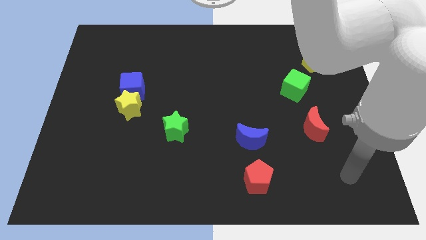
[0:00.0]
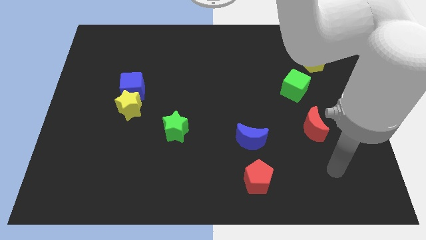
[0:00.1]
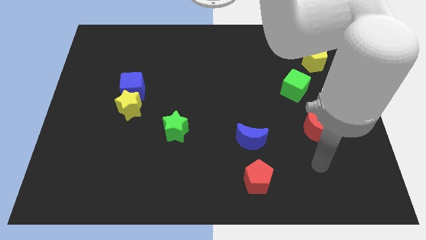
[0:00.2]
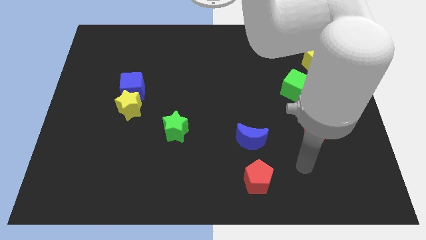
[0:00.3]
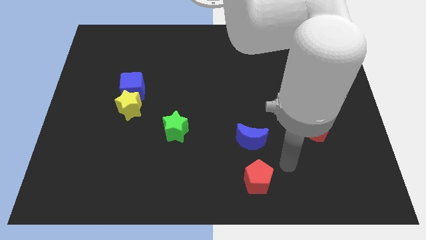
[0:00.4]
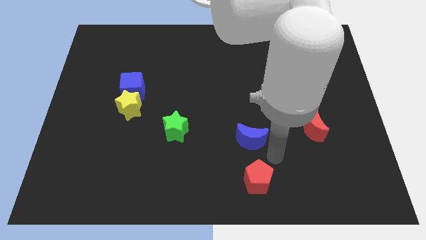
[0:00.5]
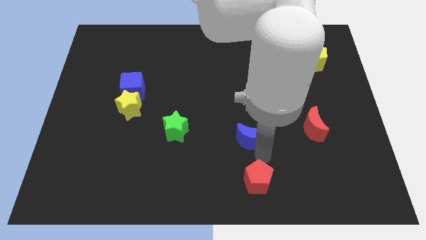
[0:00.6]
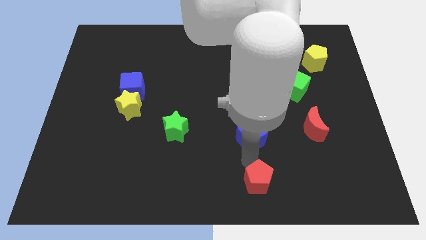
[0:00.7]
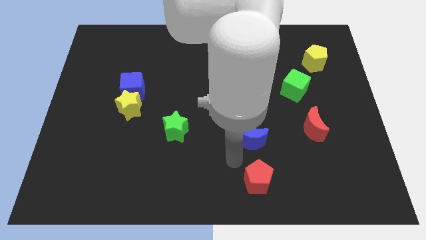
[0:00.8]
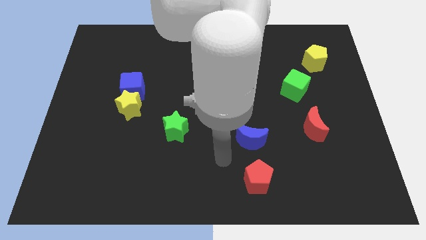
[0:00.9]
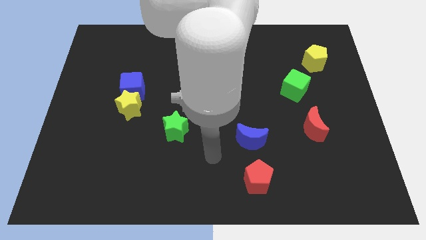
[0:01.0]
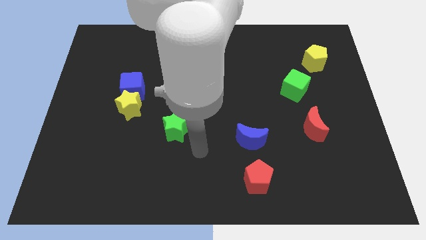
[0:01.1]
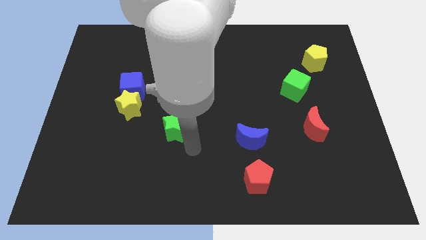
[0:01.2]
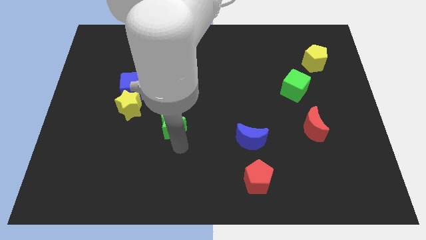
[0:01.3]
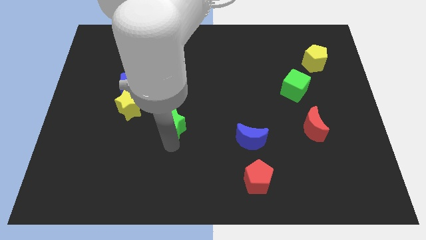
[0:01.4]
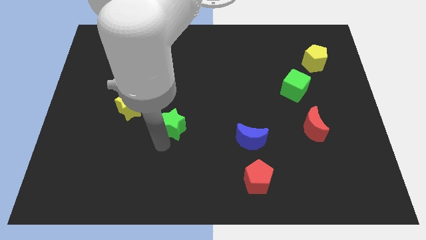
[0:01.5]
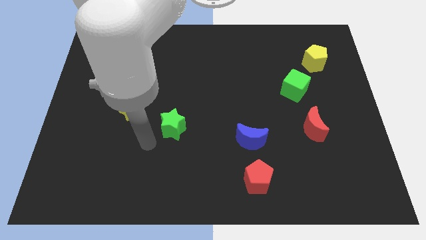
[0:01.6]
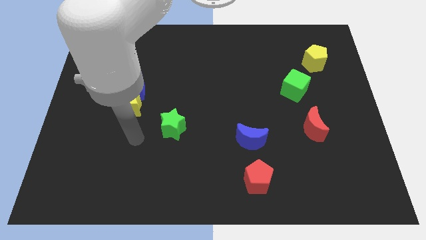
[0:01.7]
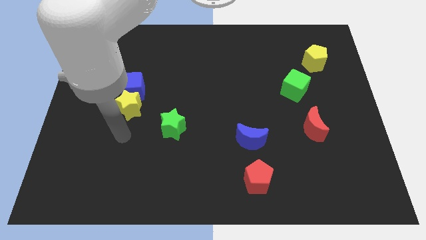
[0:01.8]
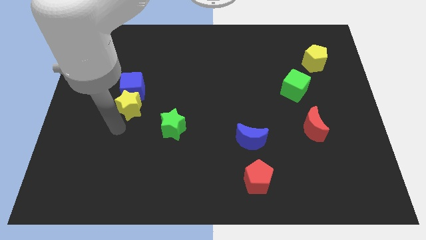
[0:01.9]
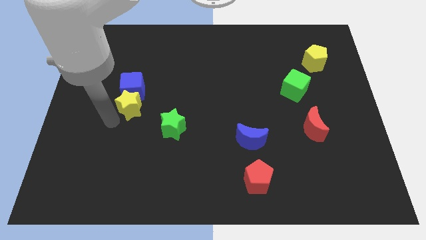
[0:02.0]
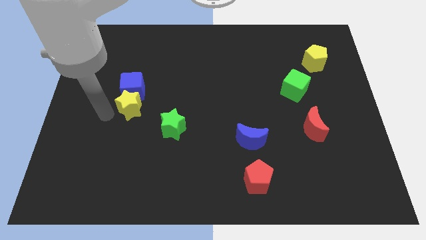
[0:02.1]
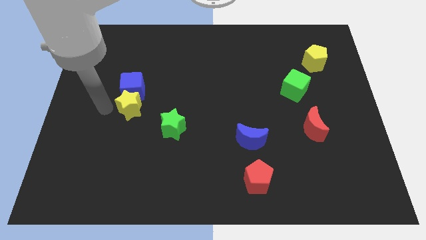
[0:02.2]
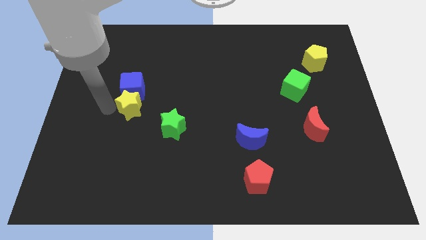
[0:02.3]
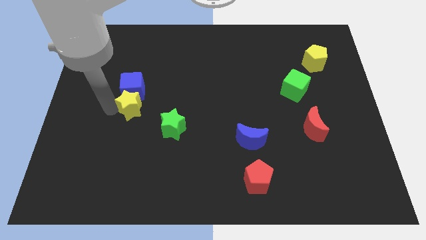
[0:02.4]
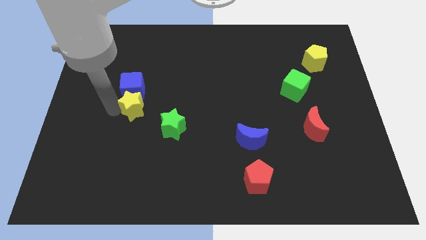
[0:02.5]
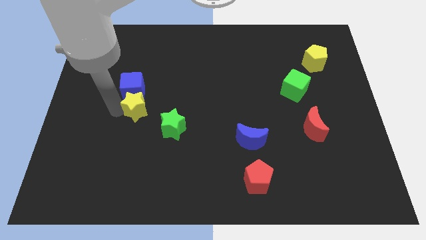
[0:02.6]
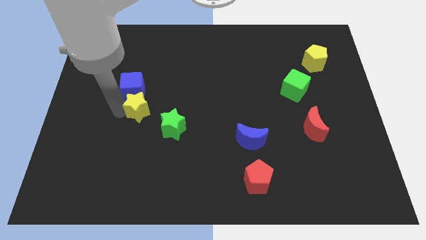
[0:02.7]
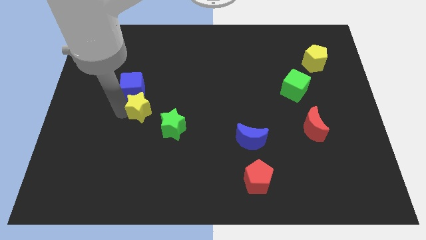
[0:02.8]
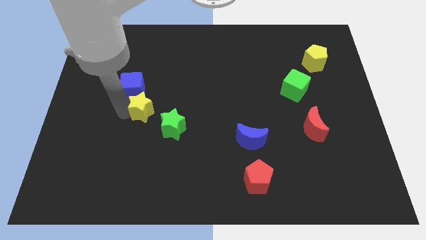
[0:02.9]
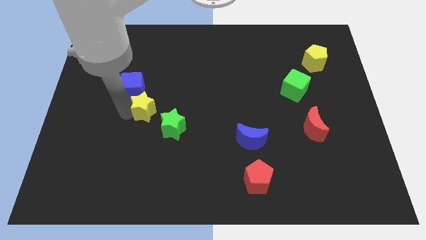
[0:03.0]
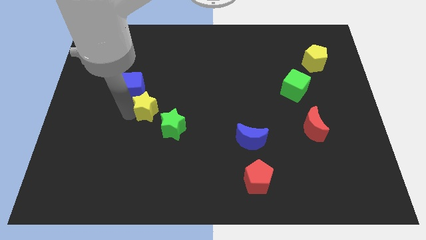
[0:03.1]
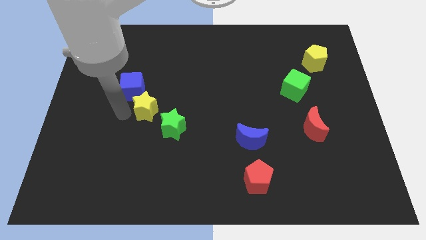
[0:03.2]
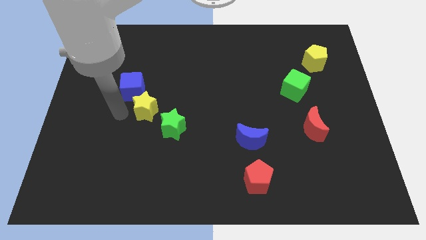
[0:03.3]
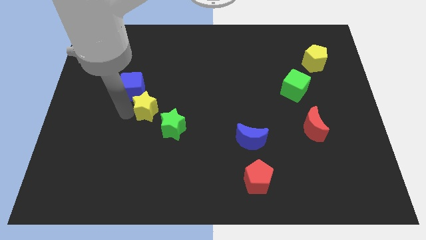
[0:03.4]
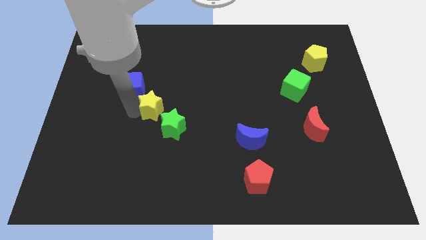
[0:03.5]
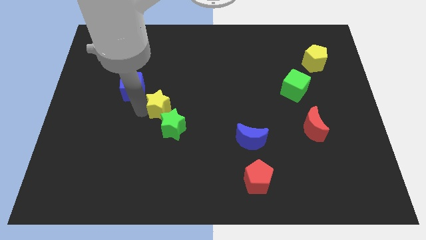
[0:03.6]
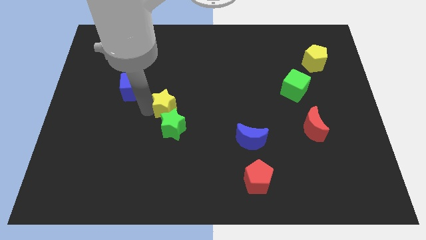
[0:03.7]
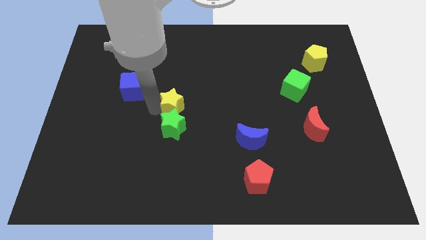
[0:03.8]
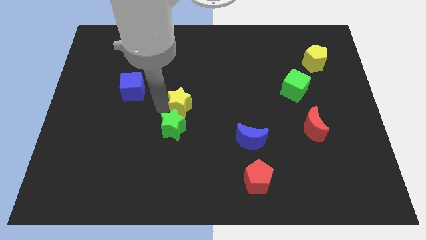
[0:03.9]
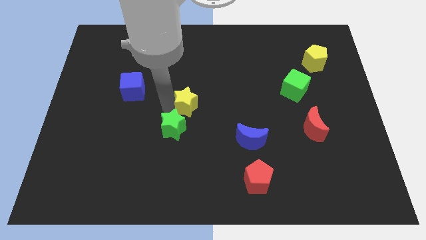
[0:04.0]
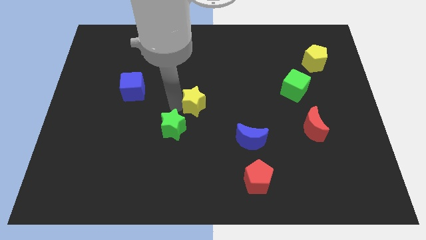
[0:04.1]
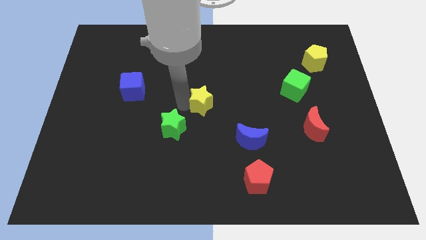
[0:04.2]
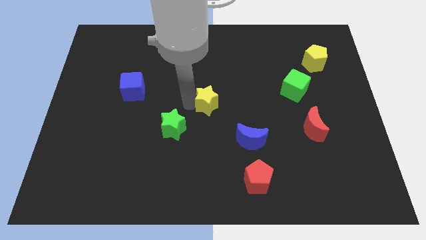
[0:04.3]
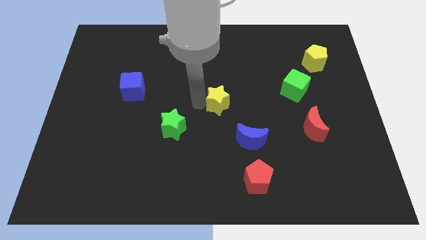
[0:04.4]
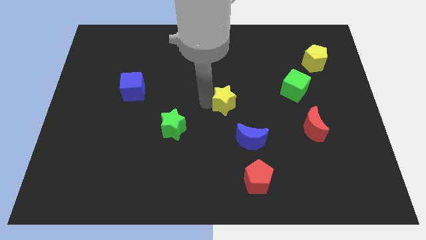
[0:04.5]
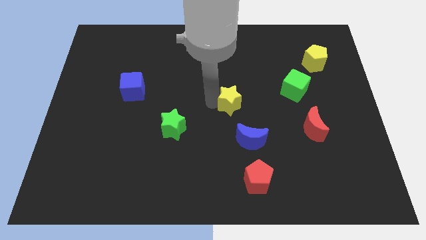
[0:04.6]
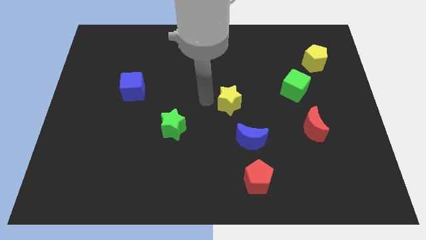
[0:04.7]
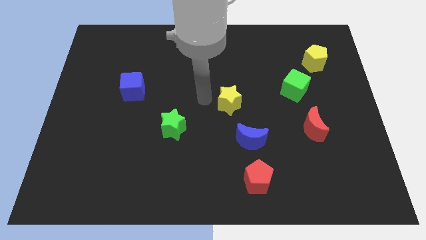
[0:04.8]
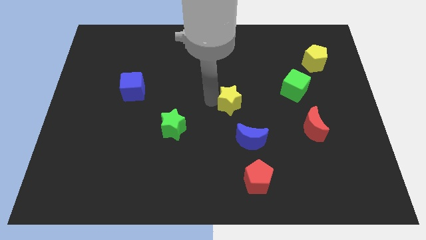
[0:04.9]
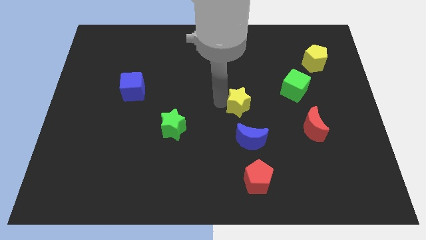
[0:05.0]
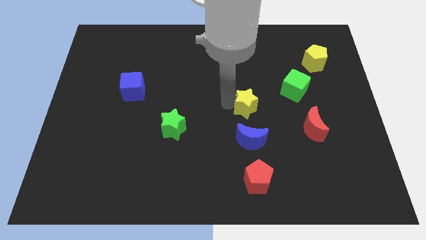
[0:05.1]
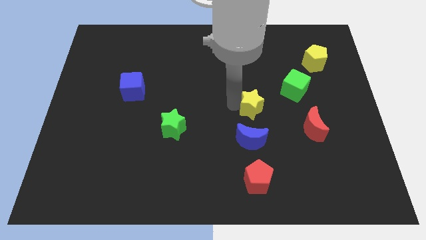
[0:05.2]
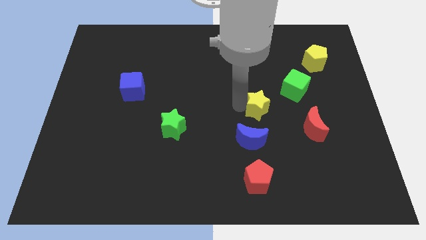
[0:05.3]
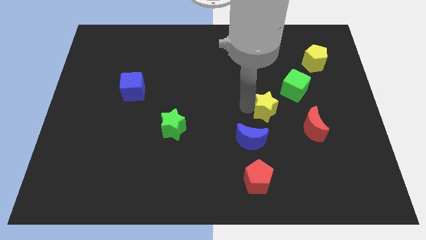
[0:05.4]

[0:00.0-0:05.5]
push the yellow star to the top left of the red moon

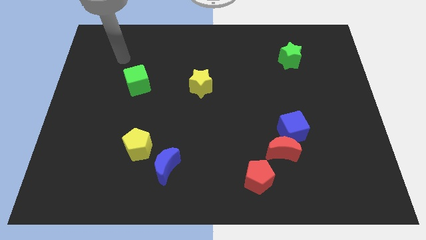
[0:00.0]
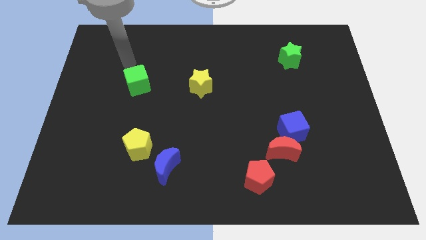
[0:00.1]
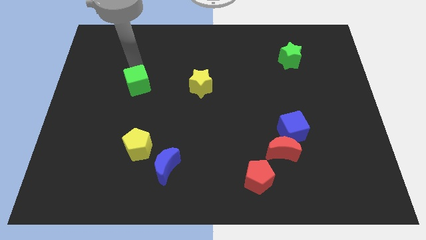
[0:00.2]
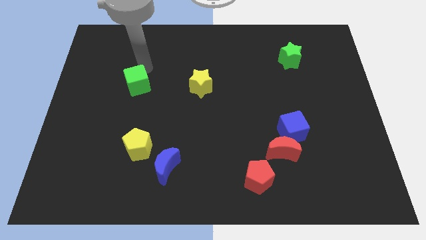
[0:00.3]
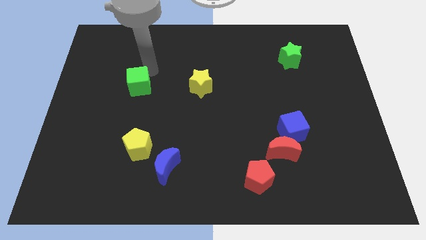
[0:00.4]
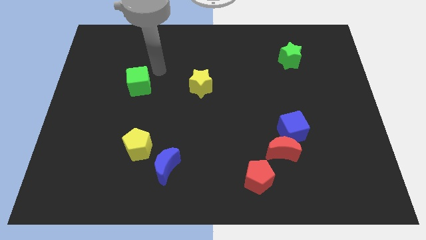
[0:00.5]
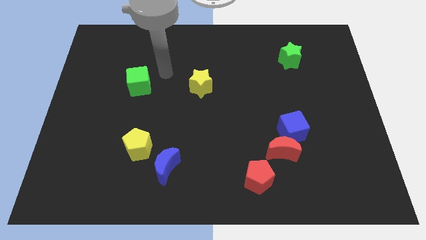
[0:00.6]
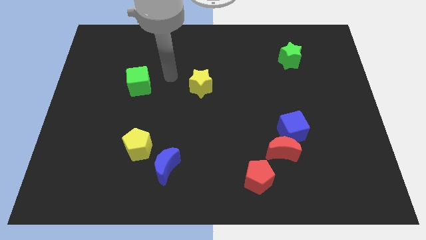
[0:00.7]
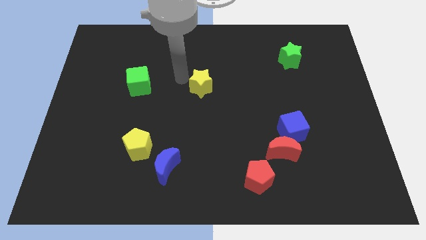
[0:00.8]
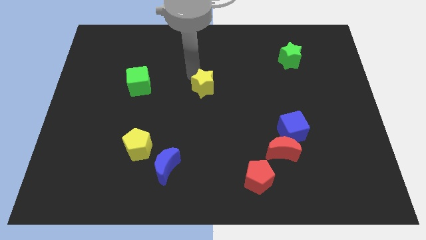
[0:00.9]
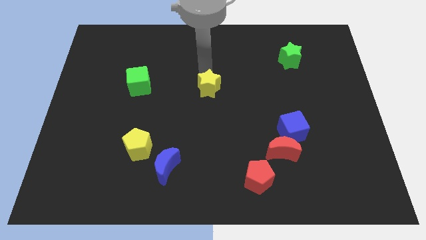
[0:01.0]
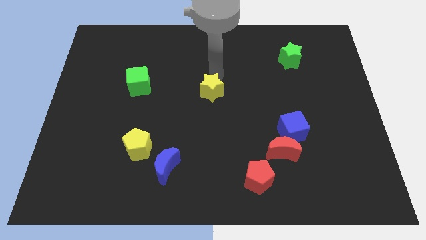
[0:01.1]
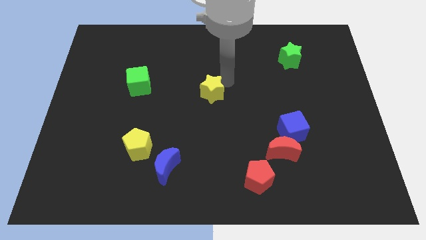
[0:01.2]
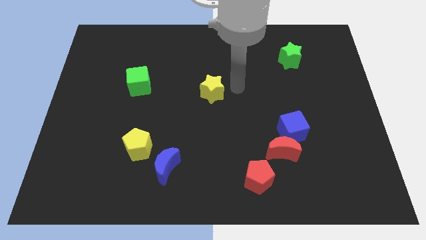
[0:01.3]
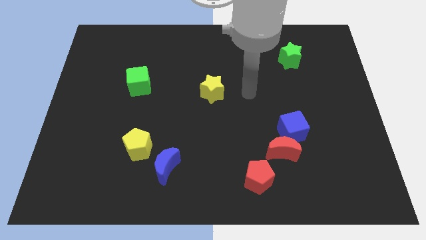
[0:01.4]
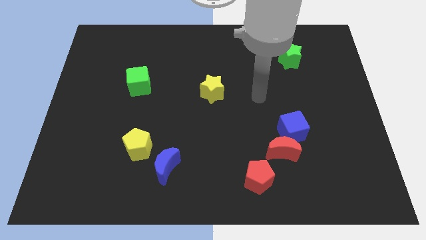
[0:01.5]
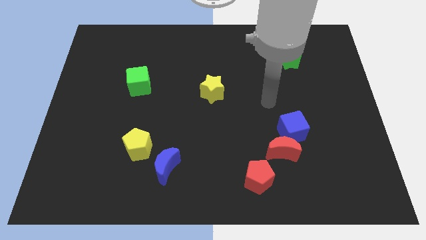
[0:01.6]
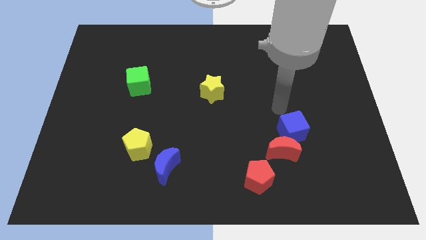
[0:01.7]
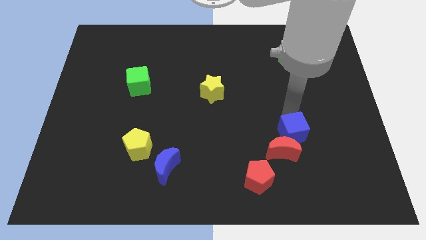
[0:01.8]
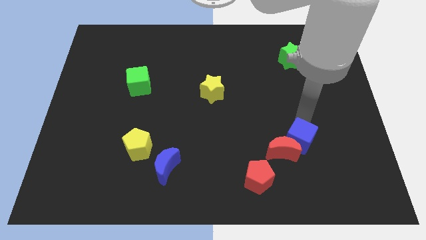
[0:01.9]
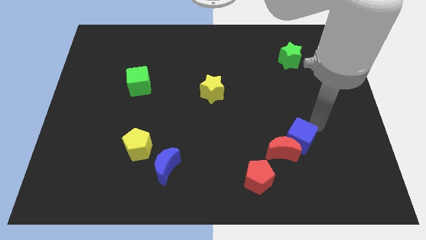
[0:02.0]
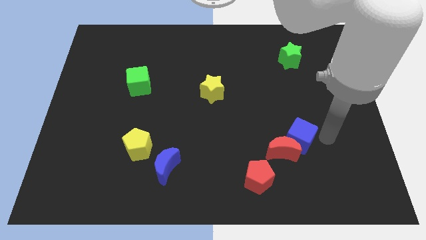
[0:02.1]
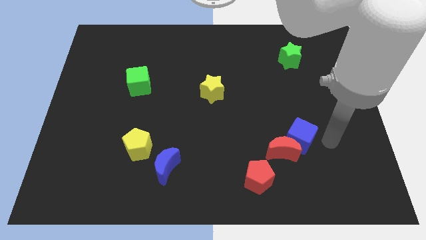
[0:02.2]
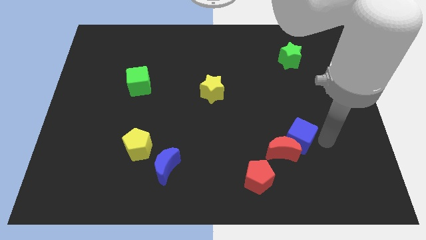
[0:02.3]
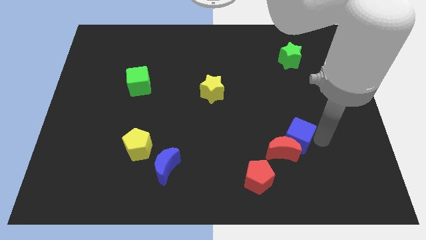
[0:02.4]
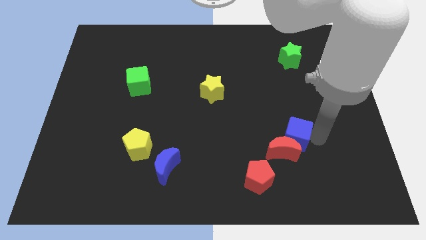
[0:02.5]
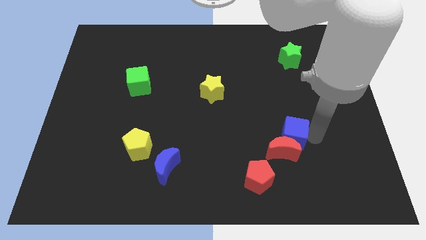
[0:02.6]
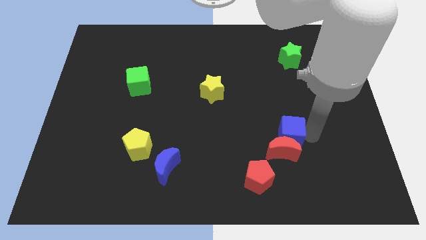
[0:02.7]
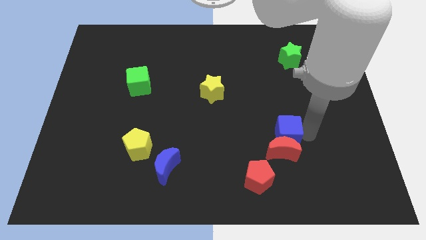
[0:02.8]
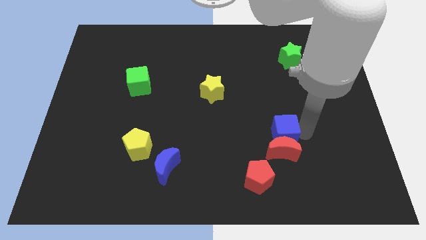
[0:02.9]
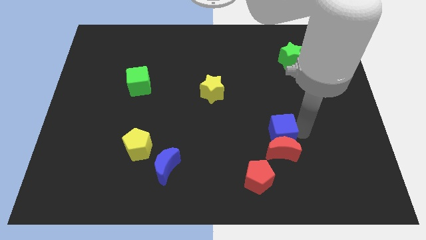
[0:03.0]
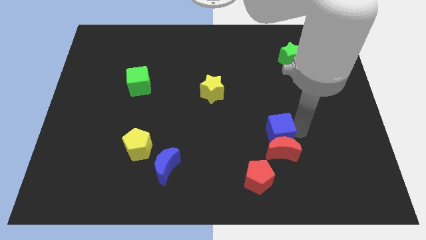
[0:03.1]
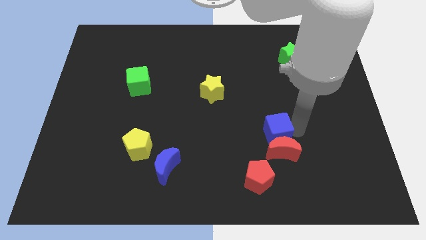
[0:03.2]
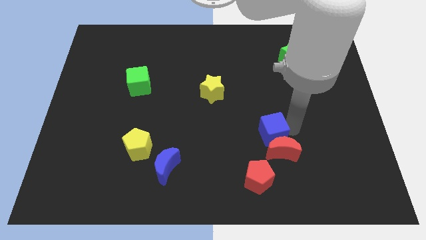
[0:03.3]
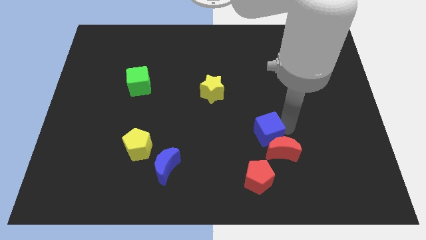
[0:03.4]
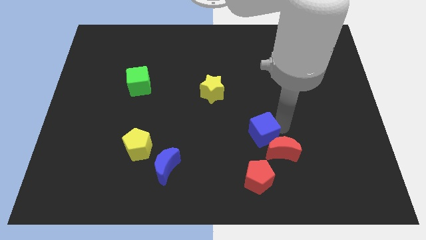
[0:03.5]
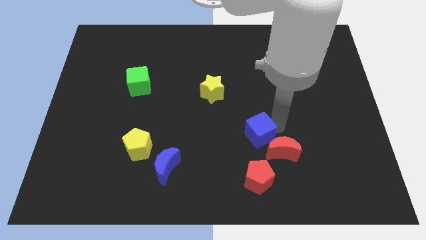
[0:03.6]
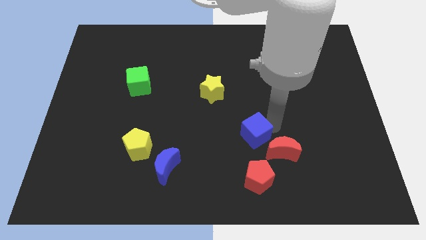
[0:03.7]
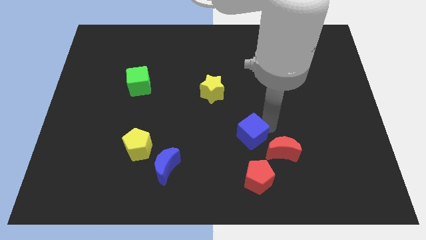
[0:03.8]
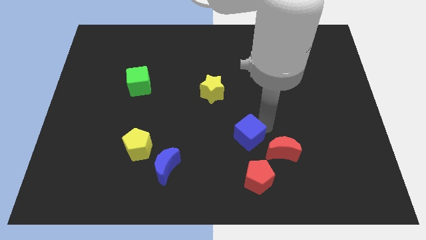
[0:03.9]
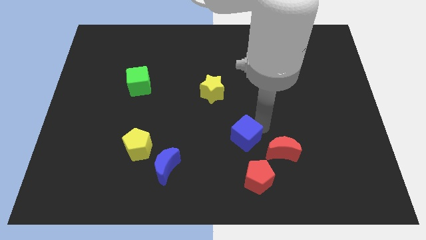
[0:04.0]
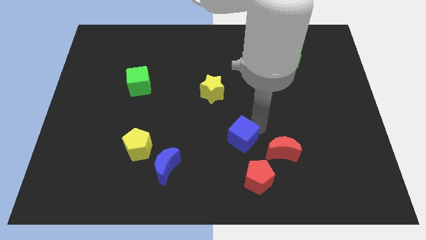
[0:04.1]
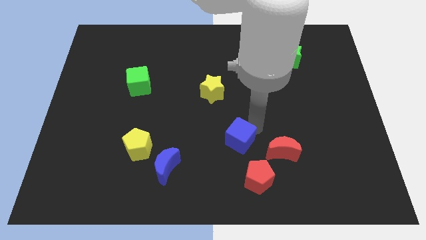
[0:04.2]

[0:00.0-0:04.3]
move the blue cube to the top left of the red pentagon
